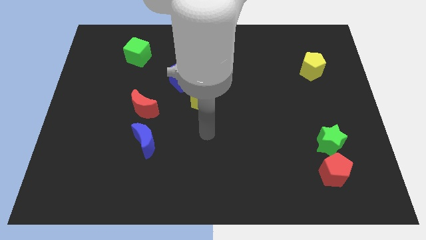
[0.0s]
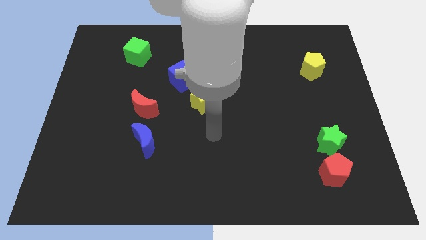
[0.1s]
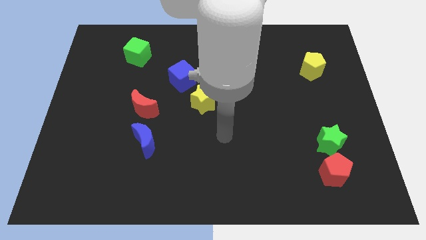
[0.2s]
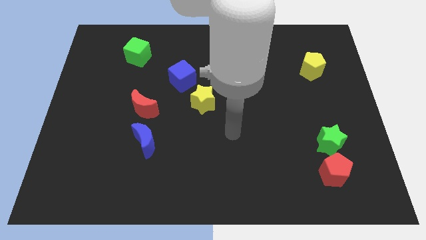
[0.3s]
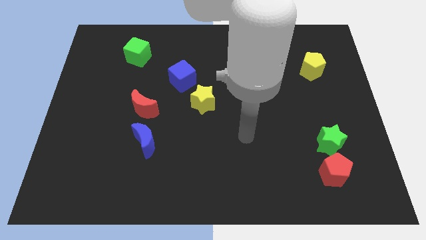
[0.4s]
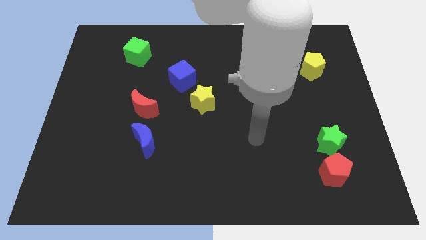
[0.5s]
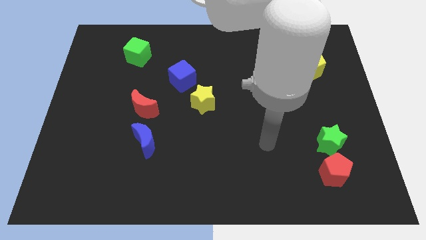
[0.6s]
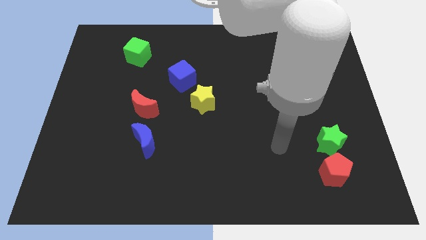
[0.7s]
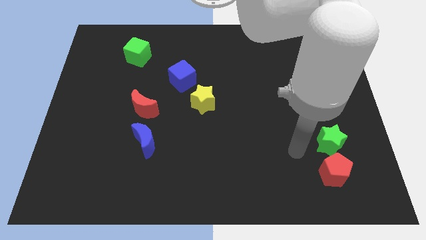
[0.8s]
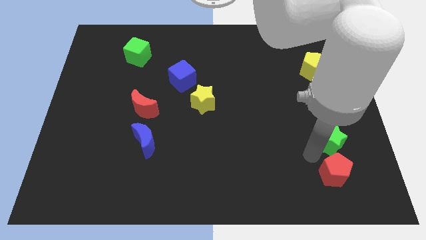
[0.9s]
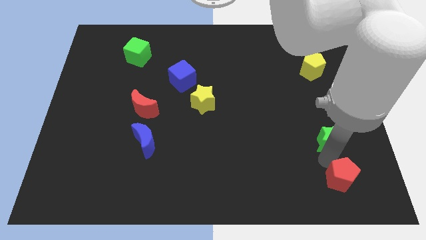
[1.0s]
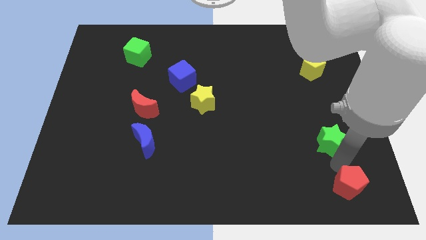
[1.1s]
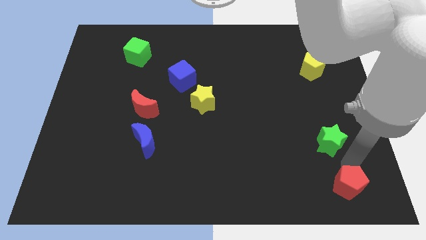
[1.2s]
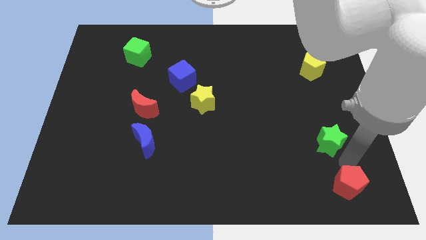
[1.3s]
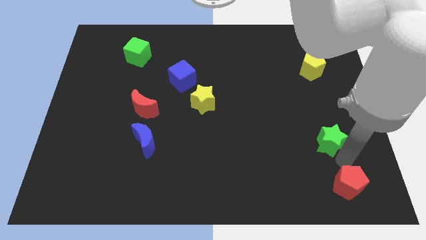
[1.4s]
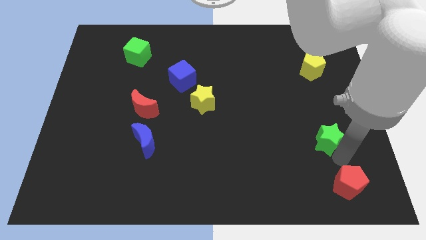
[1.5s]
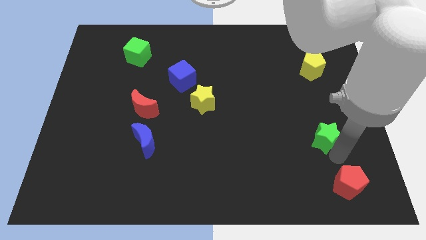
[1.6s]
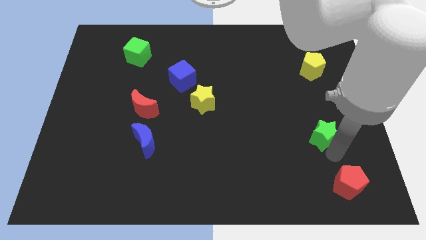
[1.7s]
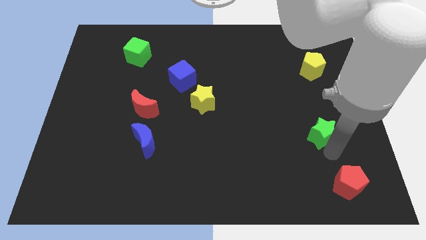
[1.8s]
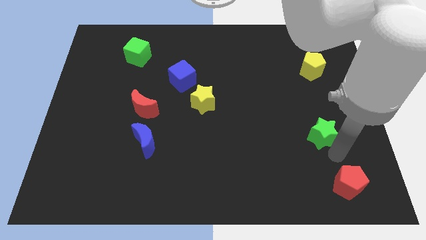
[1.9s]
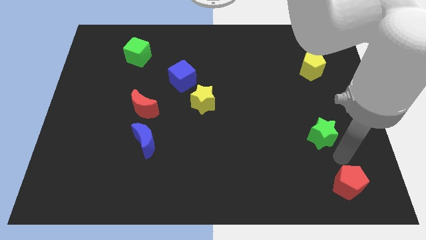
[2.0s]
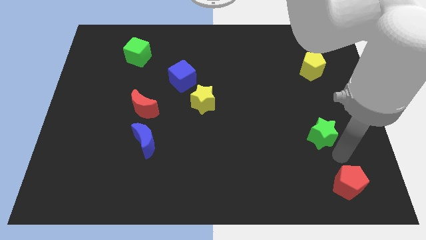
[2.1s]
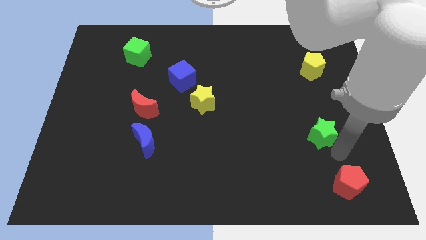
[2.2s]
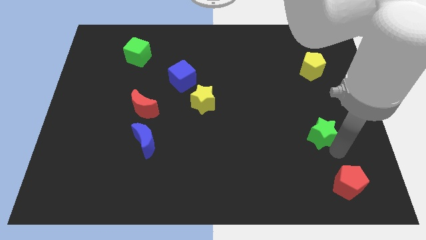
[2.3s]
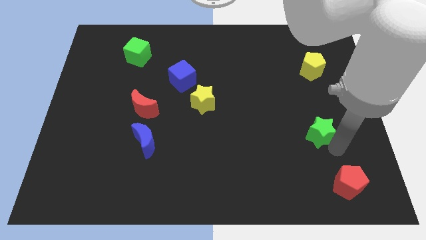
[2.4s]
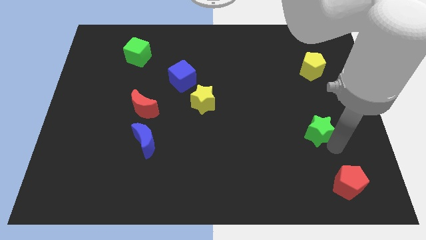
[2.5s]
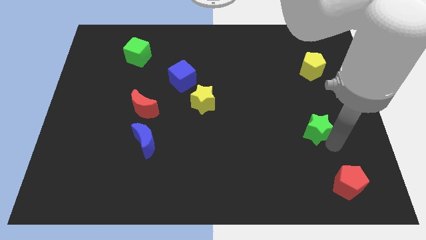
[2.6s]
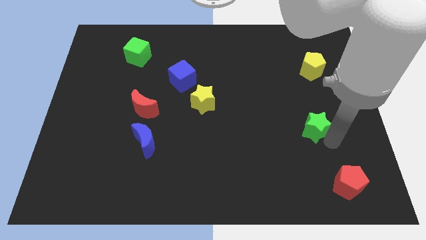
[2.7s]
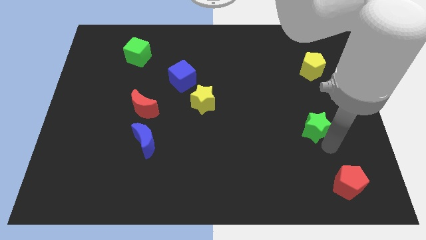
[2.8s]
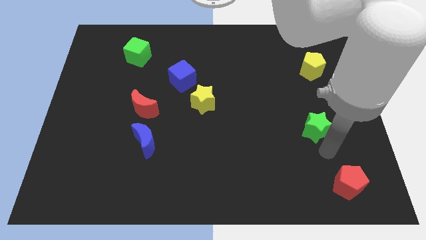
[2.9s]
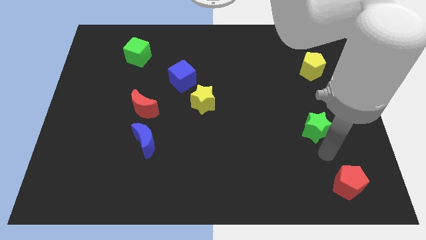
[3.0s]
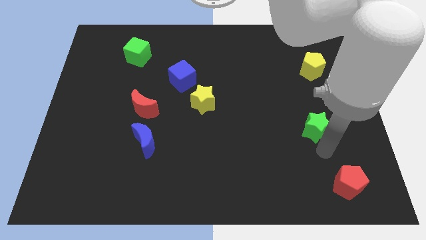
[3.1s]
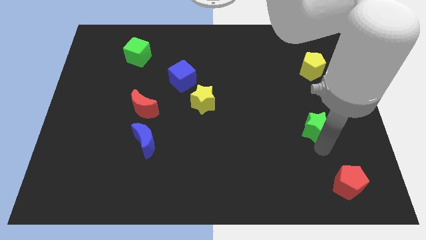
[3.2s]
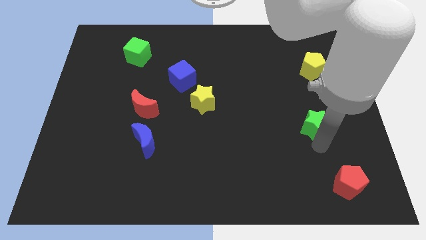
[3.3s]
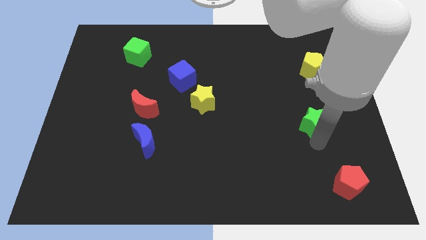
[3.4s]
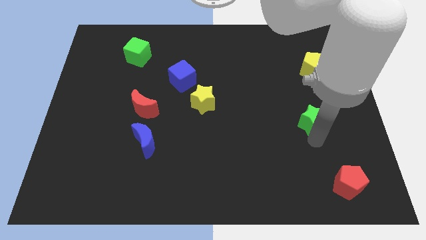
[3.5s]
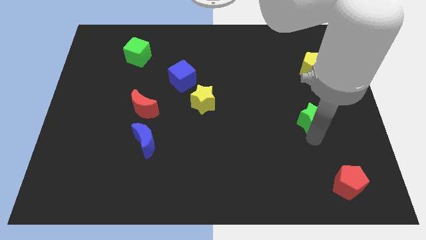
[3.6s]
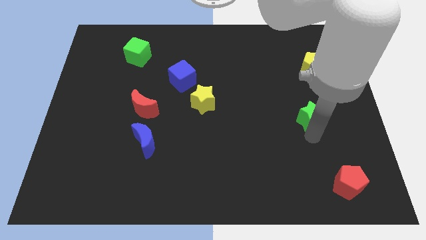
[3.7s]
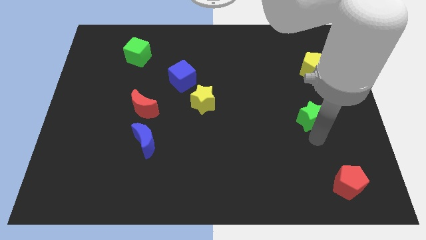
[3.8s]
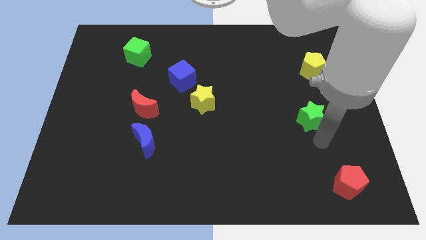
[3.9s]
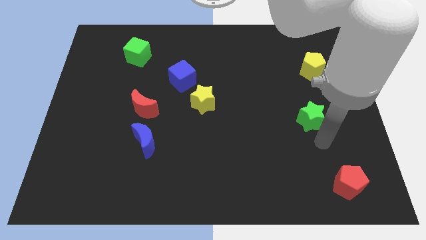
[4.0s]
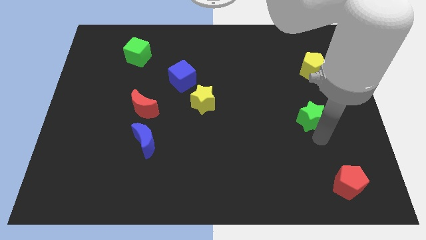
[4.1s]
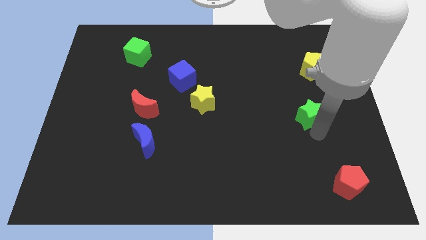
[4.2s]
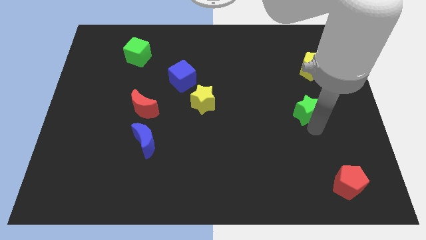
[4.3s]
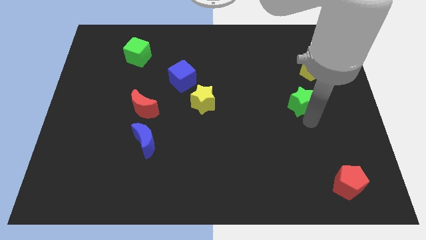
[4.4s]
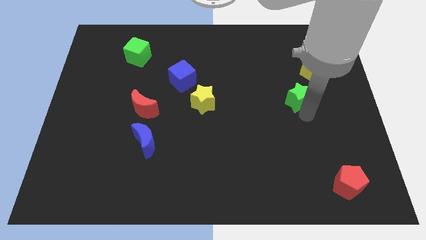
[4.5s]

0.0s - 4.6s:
push the green star diagonally down and to the left of the yellow pentagon

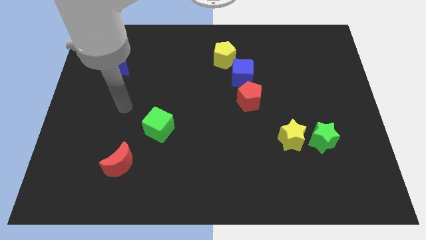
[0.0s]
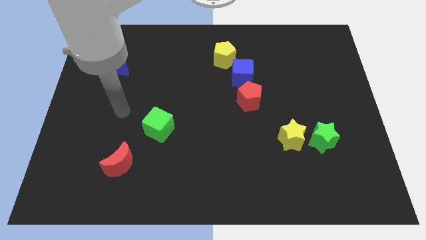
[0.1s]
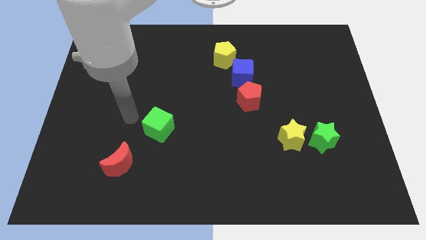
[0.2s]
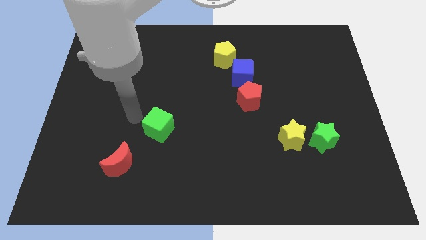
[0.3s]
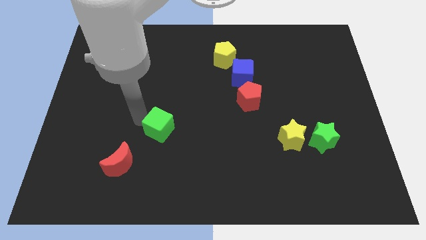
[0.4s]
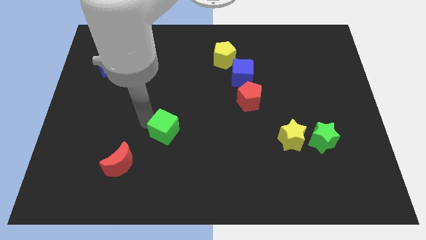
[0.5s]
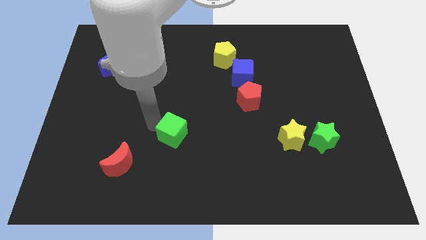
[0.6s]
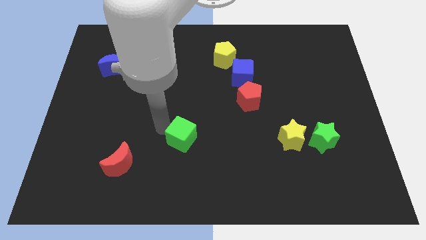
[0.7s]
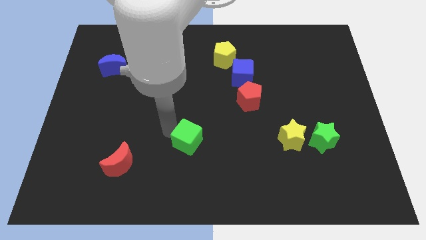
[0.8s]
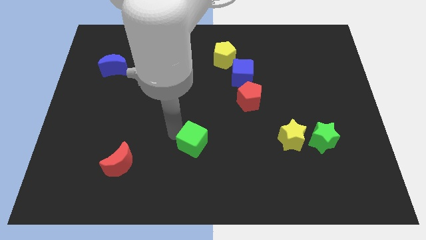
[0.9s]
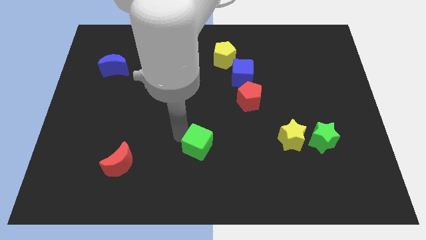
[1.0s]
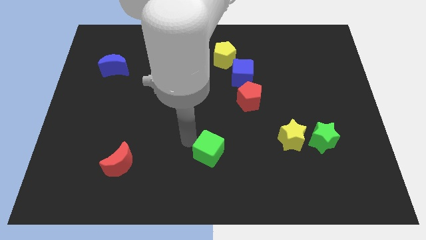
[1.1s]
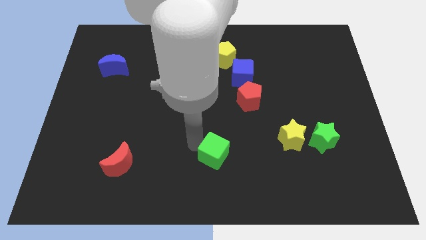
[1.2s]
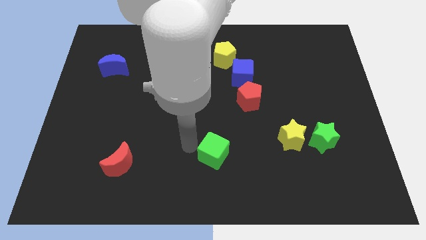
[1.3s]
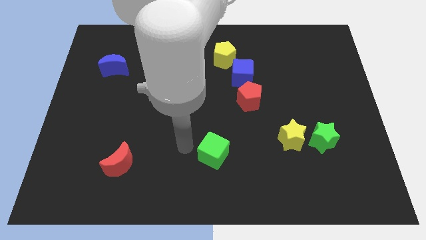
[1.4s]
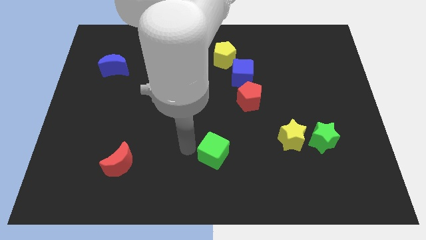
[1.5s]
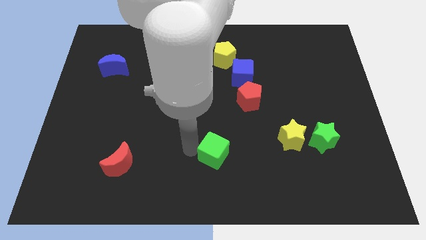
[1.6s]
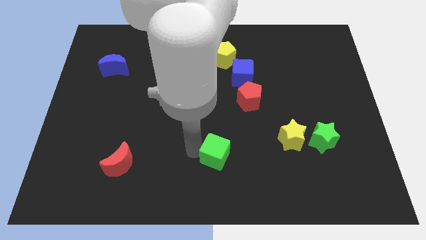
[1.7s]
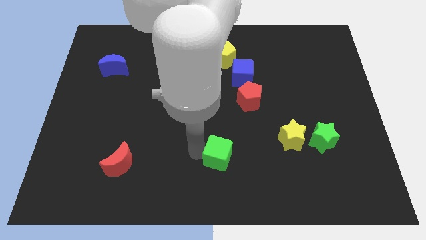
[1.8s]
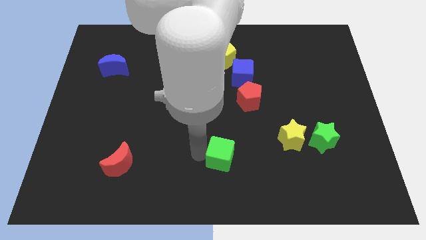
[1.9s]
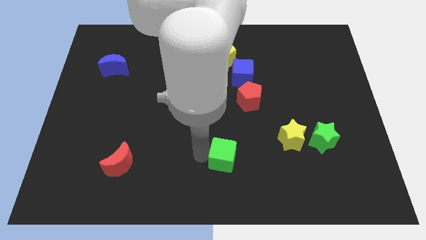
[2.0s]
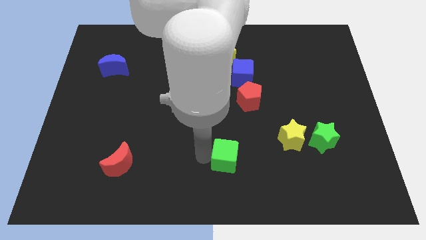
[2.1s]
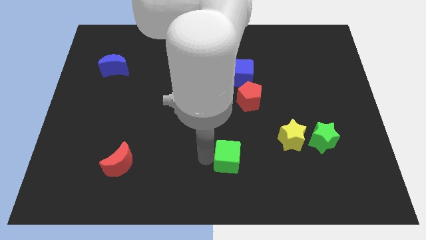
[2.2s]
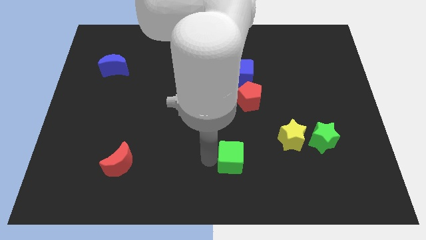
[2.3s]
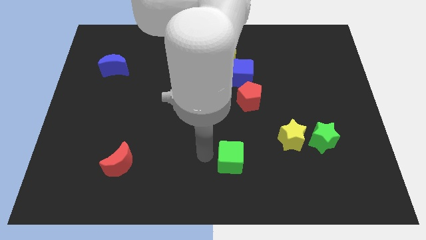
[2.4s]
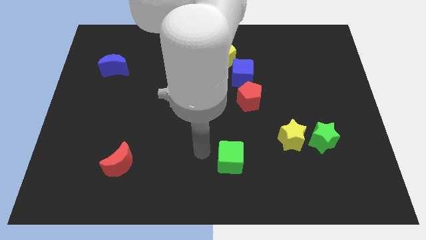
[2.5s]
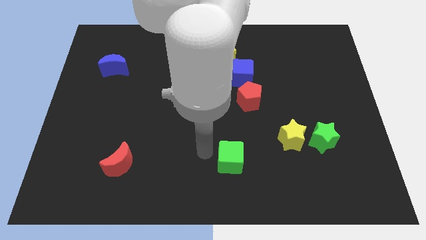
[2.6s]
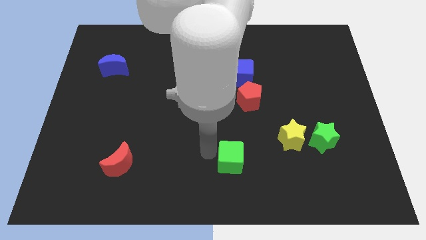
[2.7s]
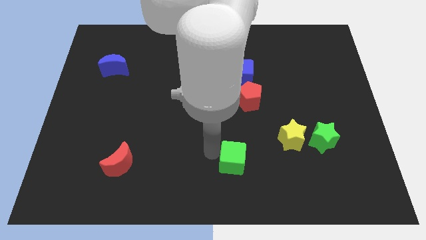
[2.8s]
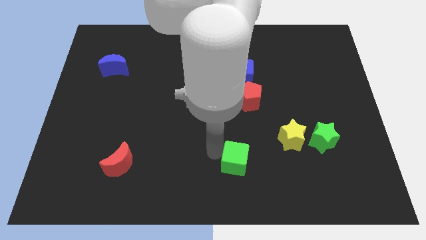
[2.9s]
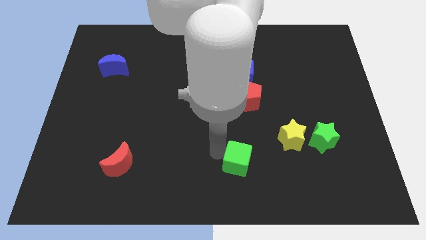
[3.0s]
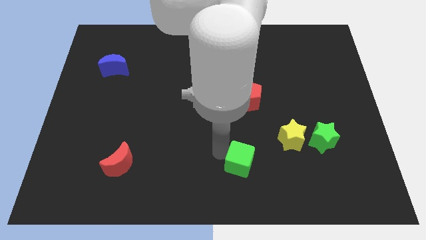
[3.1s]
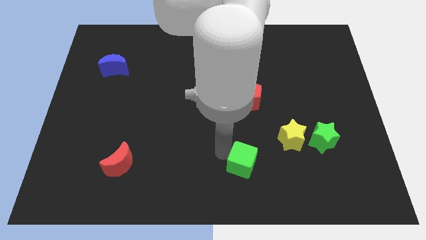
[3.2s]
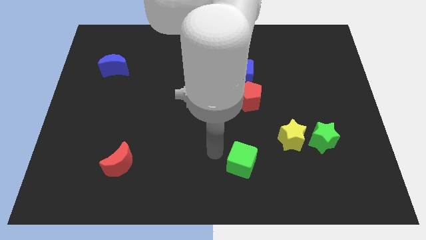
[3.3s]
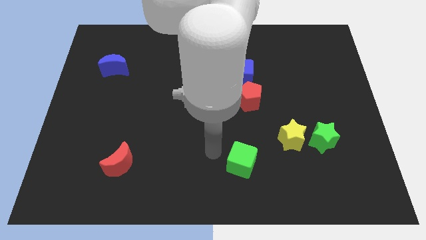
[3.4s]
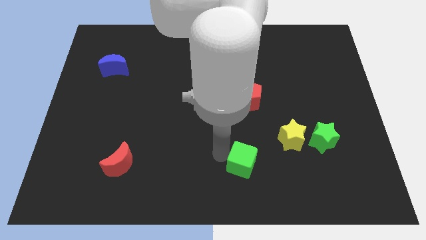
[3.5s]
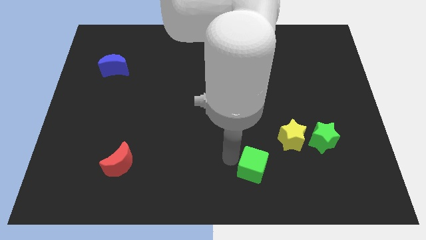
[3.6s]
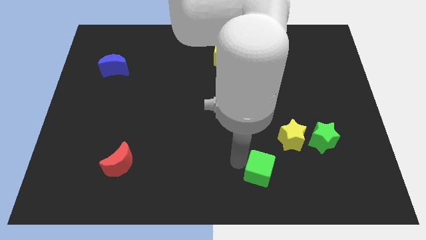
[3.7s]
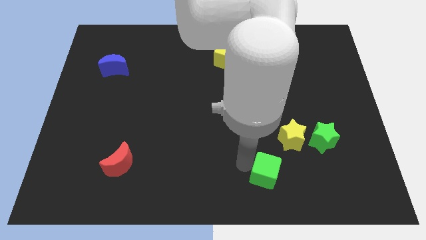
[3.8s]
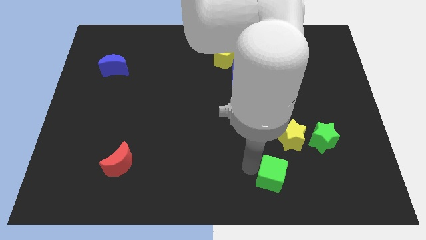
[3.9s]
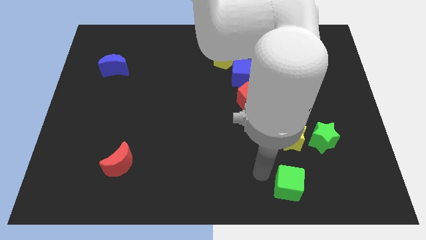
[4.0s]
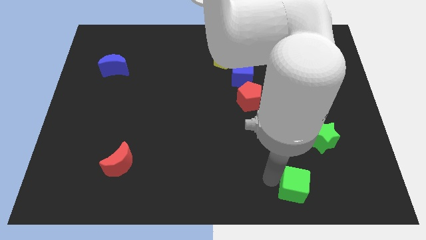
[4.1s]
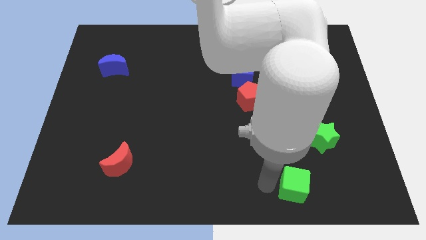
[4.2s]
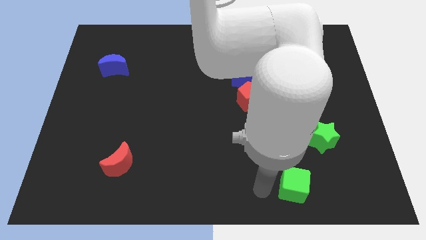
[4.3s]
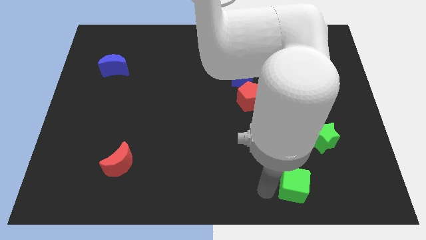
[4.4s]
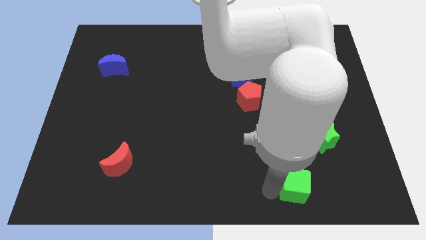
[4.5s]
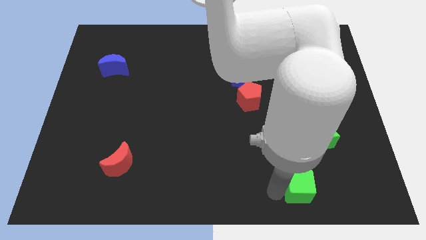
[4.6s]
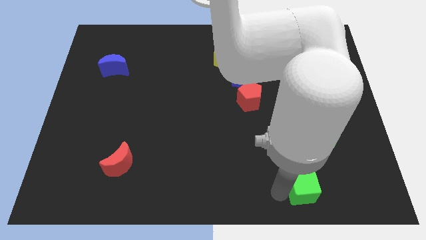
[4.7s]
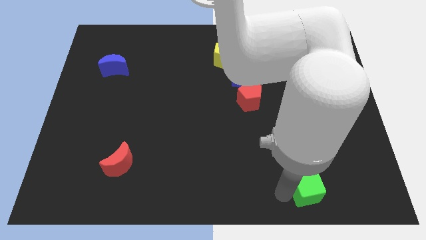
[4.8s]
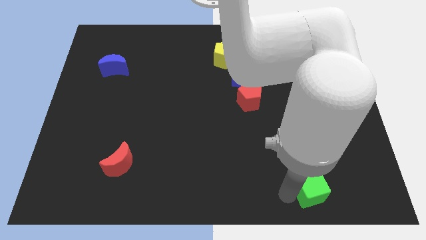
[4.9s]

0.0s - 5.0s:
push the green cube to the bottom of the green star
